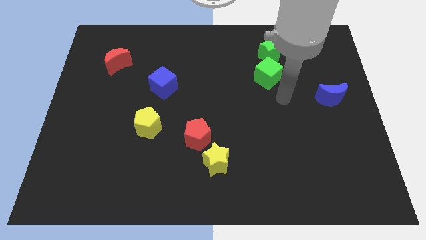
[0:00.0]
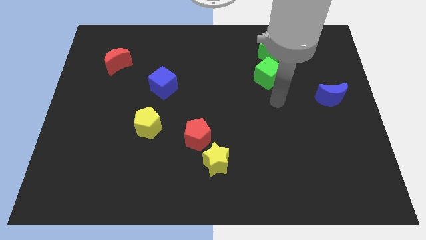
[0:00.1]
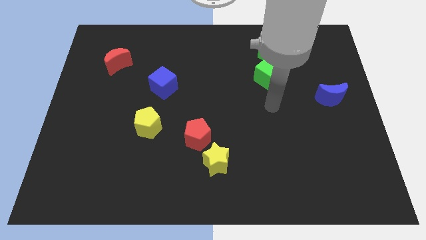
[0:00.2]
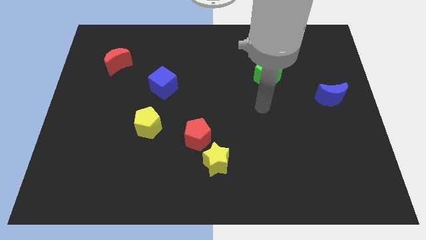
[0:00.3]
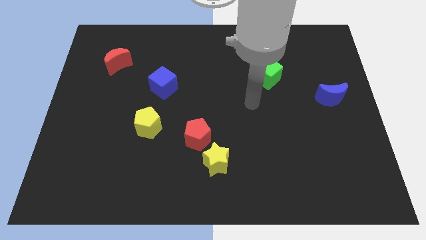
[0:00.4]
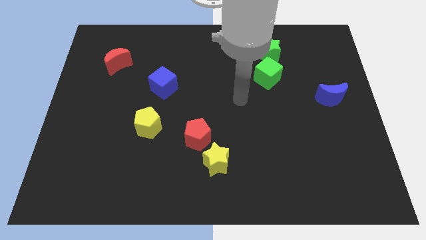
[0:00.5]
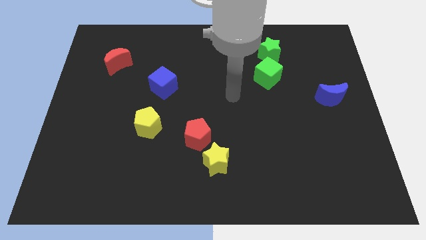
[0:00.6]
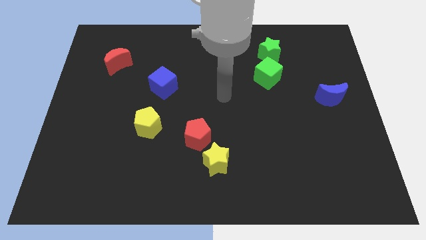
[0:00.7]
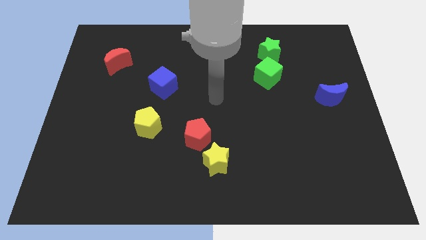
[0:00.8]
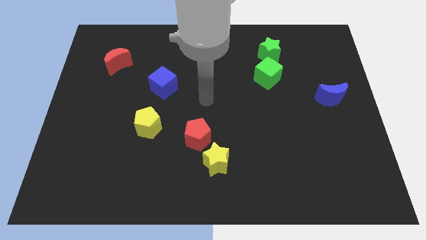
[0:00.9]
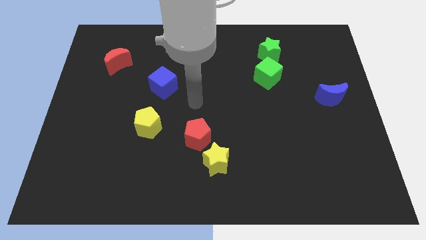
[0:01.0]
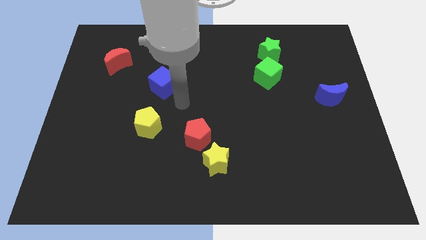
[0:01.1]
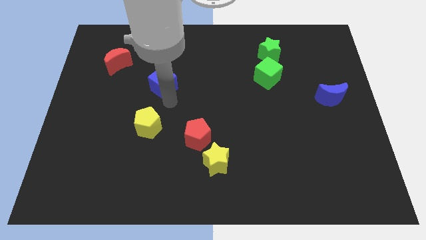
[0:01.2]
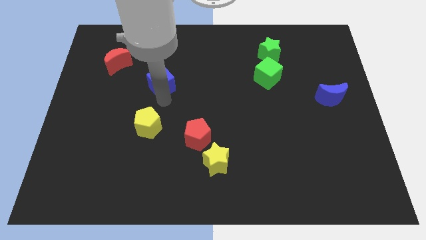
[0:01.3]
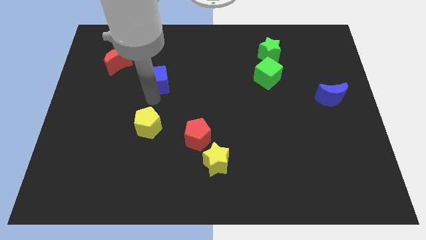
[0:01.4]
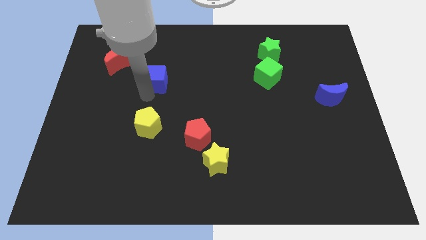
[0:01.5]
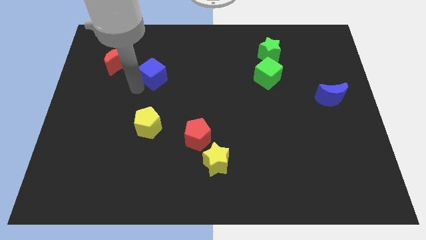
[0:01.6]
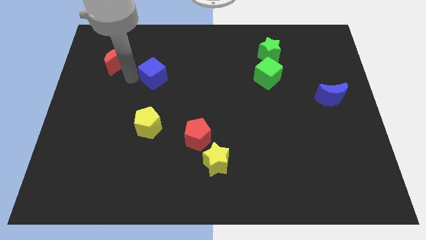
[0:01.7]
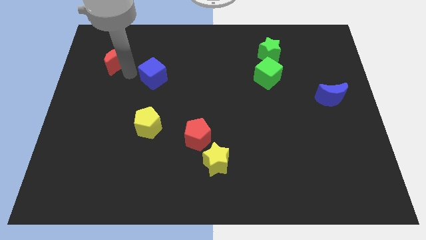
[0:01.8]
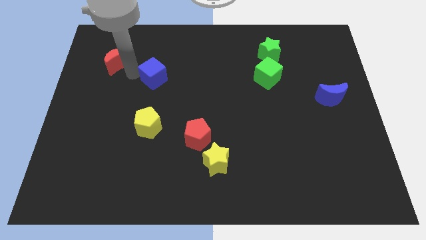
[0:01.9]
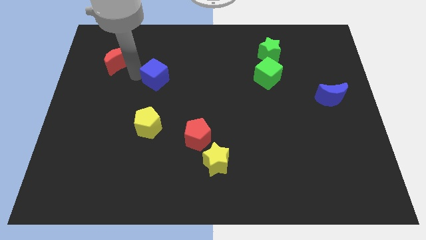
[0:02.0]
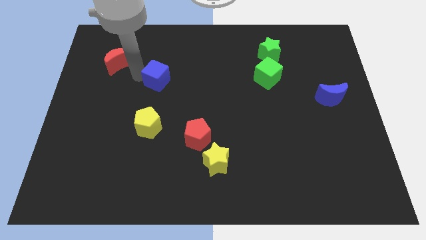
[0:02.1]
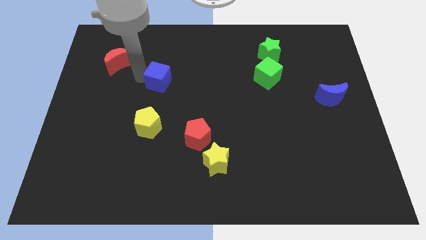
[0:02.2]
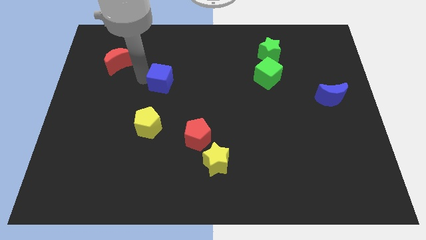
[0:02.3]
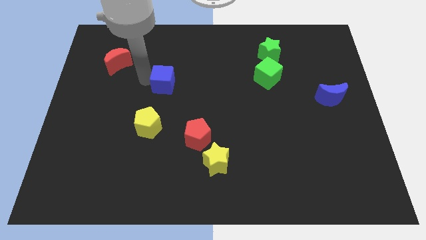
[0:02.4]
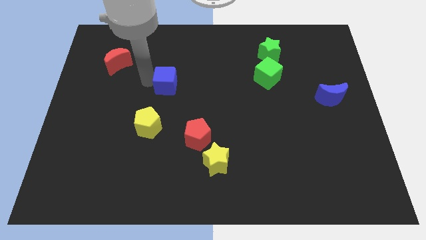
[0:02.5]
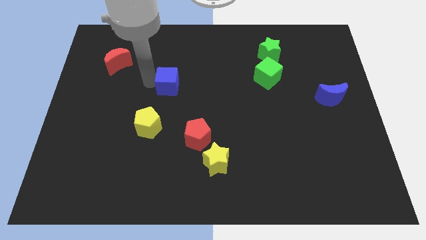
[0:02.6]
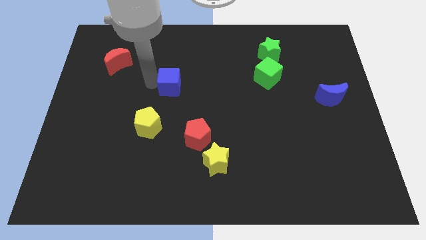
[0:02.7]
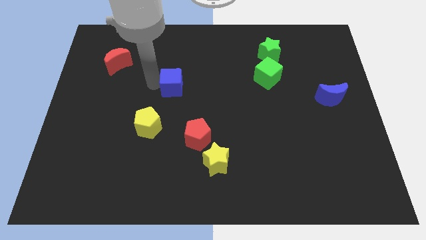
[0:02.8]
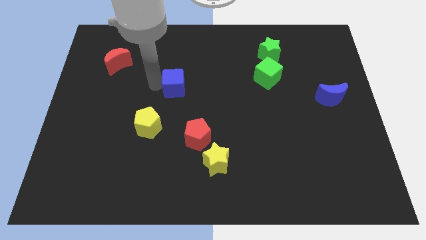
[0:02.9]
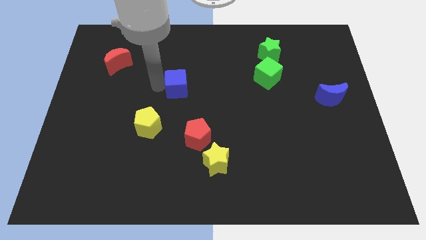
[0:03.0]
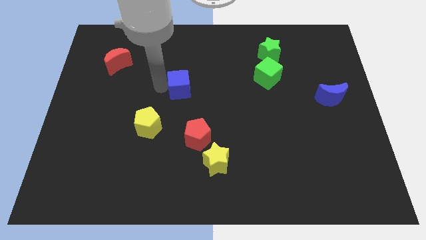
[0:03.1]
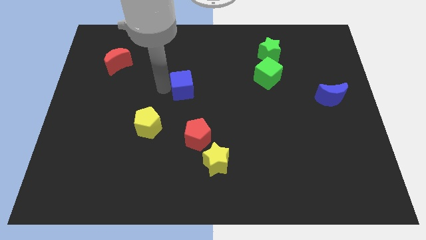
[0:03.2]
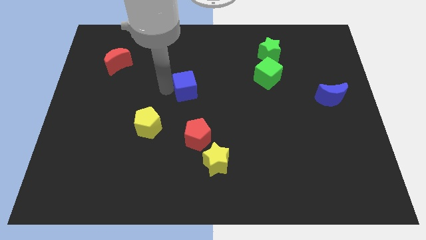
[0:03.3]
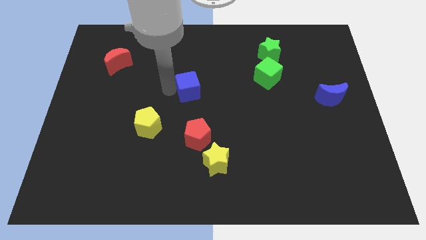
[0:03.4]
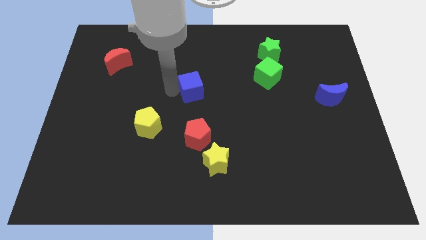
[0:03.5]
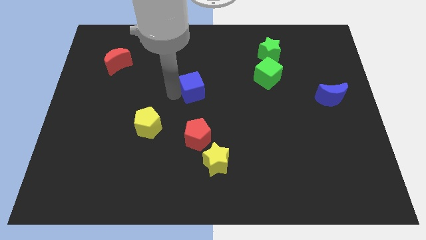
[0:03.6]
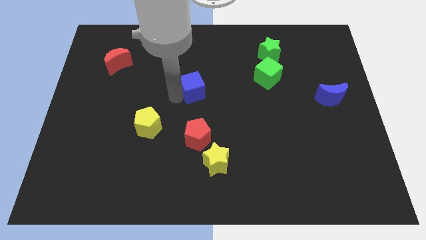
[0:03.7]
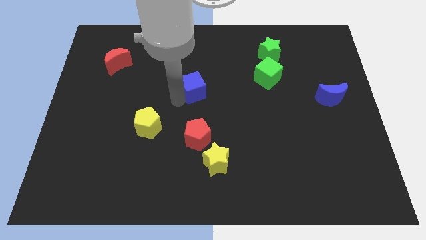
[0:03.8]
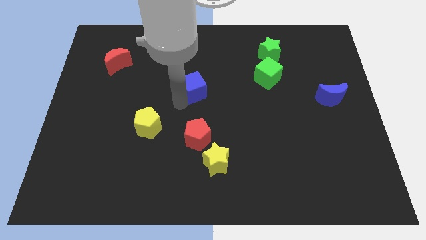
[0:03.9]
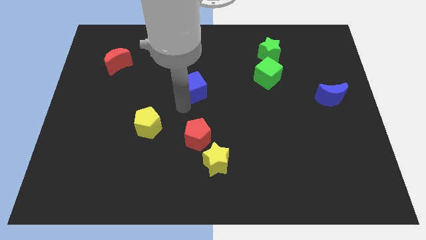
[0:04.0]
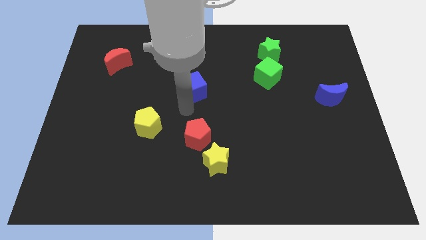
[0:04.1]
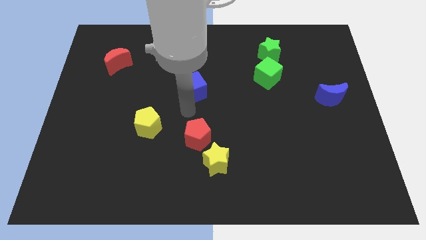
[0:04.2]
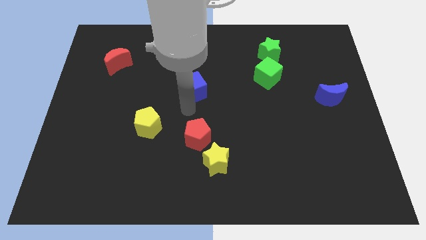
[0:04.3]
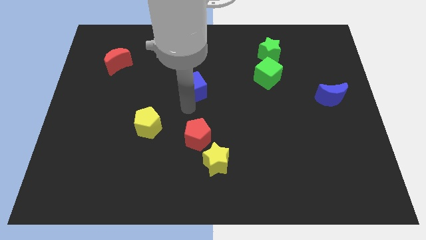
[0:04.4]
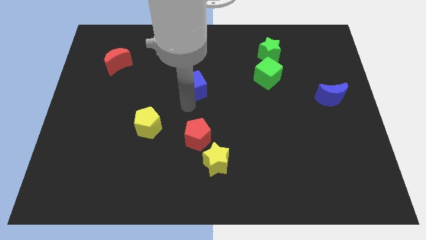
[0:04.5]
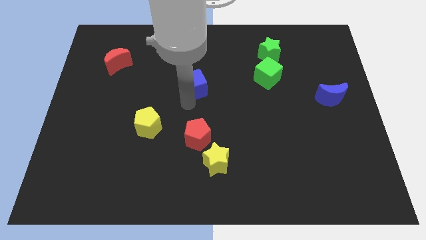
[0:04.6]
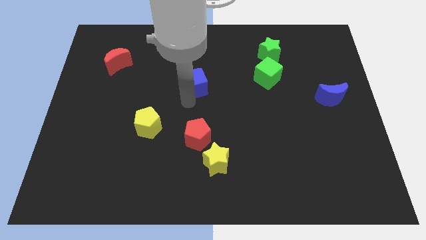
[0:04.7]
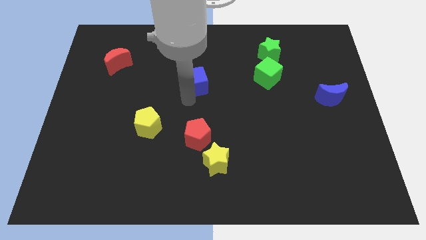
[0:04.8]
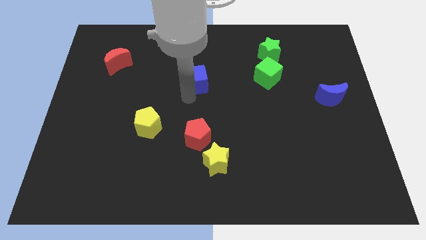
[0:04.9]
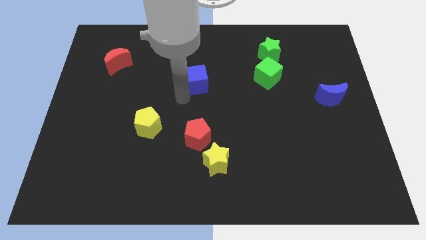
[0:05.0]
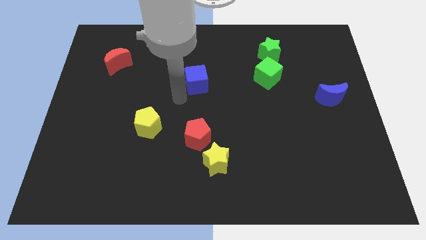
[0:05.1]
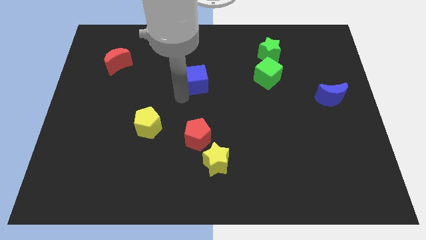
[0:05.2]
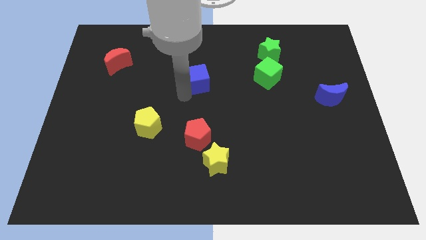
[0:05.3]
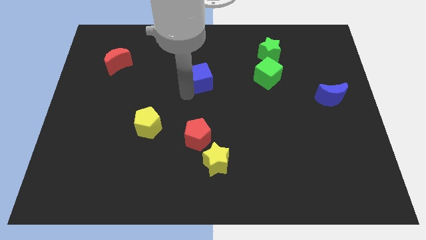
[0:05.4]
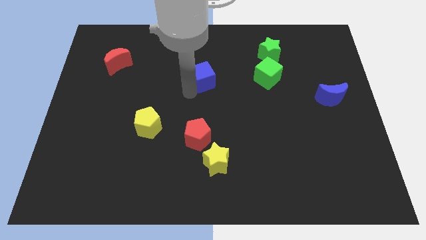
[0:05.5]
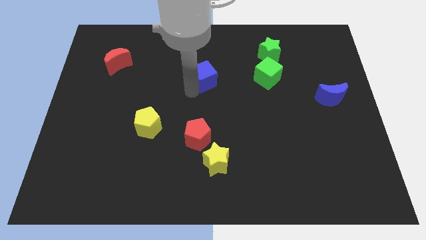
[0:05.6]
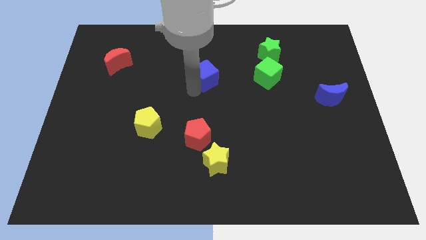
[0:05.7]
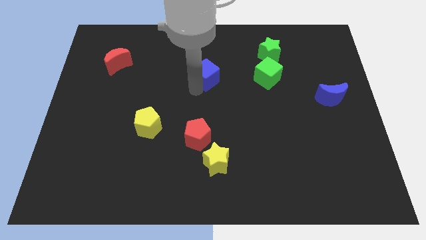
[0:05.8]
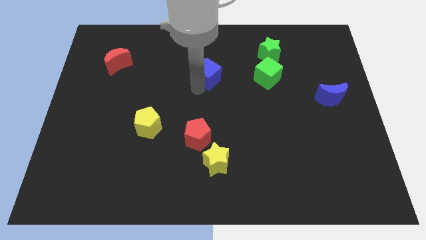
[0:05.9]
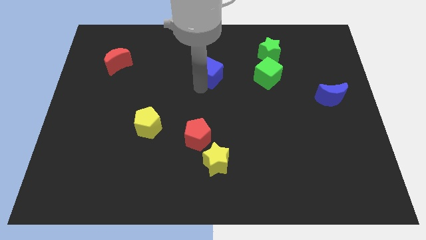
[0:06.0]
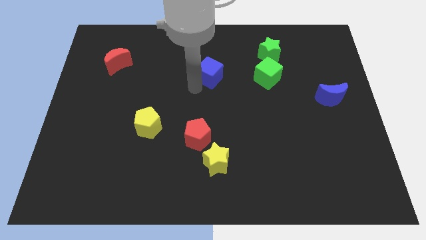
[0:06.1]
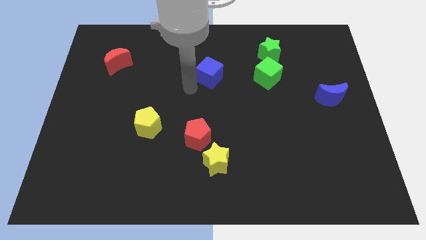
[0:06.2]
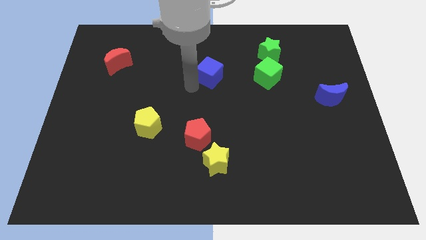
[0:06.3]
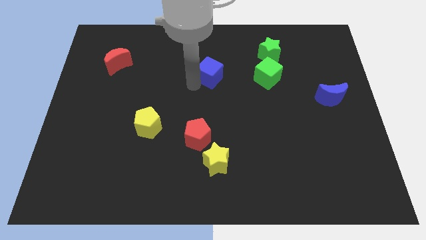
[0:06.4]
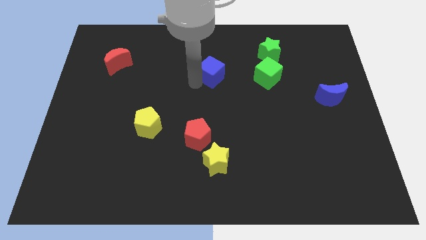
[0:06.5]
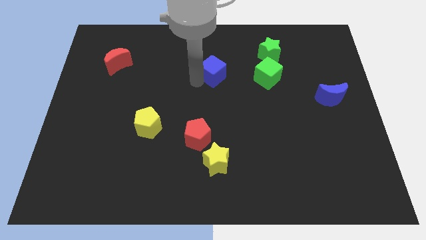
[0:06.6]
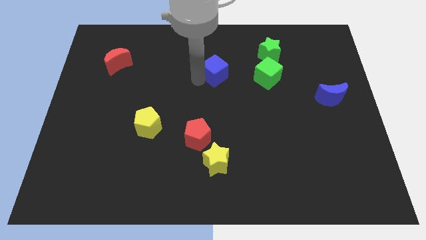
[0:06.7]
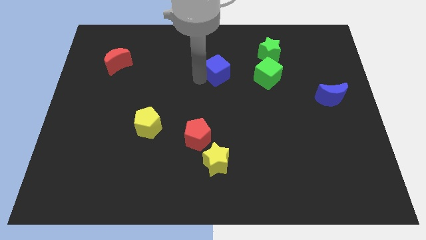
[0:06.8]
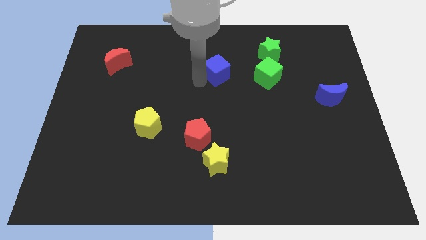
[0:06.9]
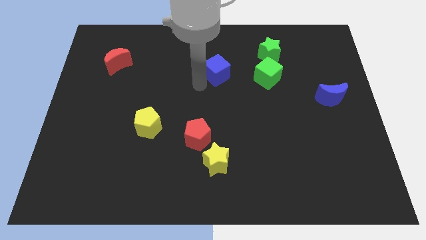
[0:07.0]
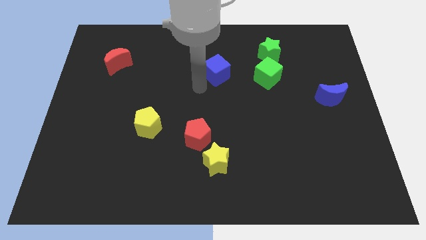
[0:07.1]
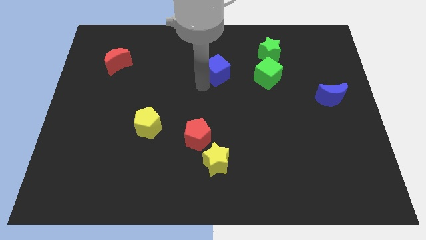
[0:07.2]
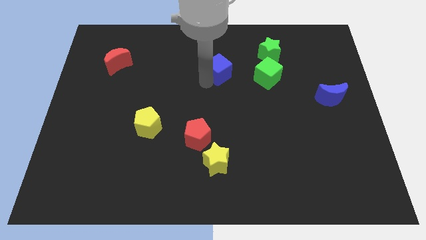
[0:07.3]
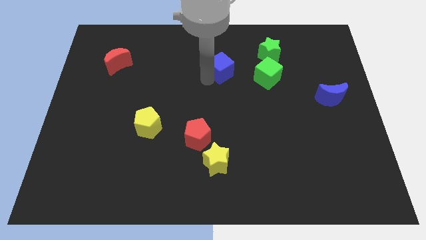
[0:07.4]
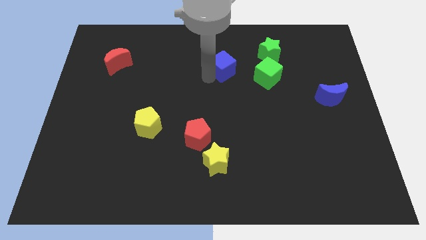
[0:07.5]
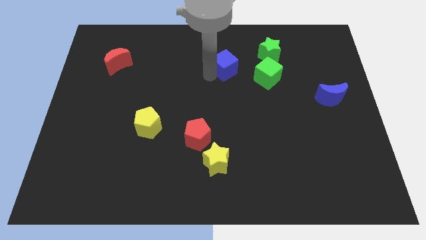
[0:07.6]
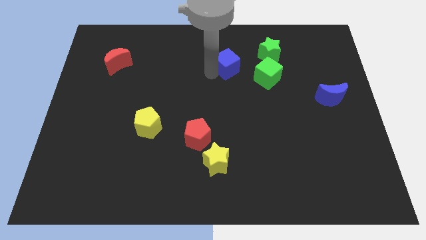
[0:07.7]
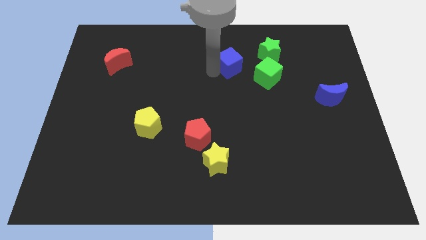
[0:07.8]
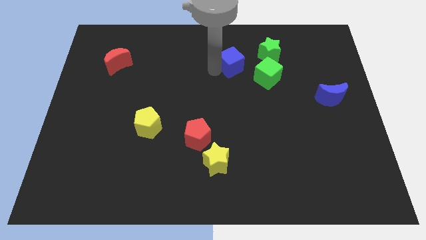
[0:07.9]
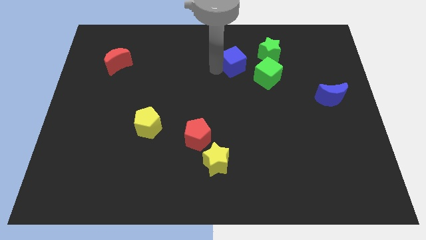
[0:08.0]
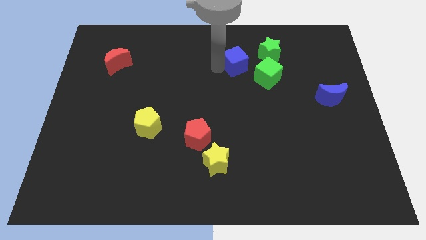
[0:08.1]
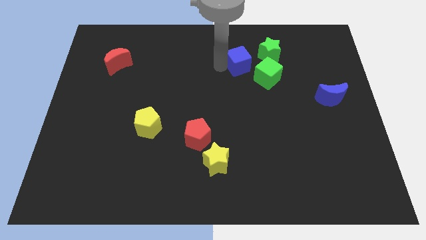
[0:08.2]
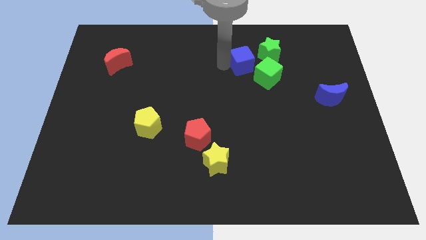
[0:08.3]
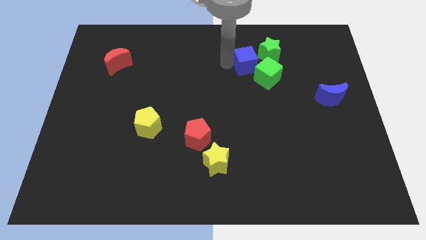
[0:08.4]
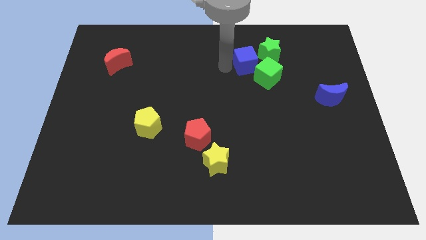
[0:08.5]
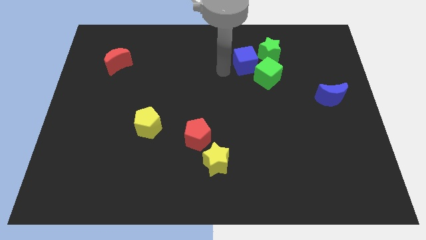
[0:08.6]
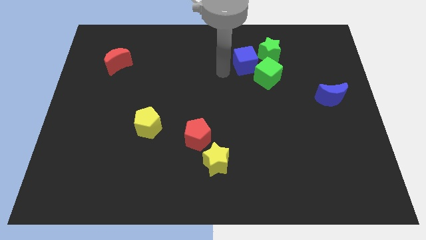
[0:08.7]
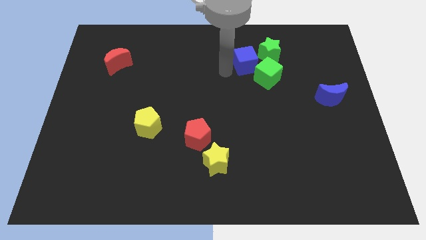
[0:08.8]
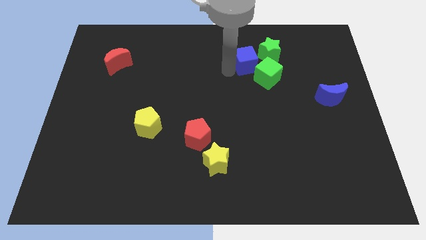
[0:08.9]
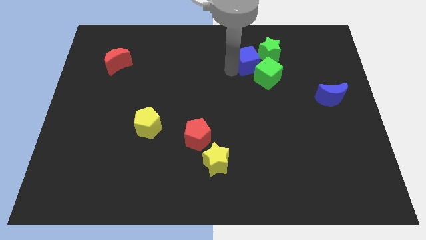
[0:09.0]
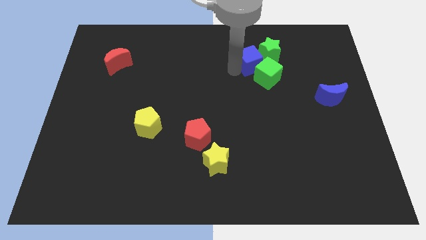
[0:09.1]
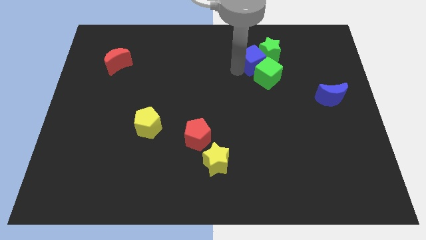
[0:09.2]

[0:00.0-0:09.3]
put the blue cube towards the green star
